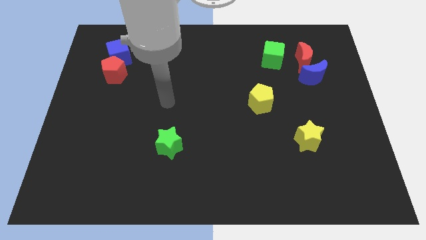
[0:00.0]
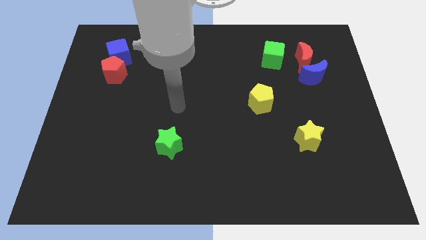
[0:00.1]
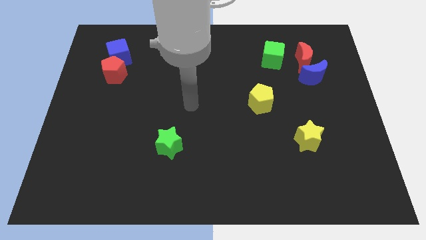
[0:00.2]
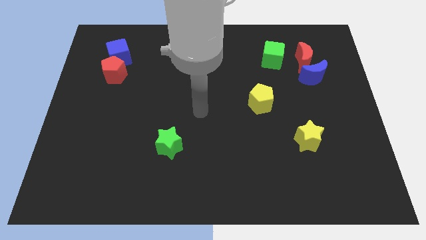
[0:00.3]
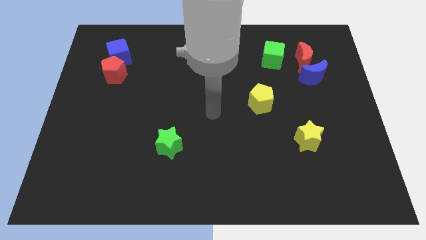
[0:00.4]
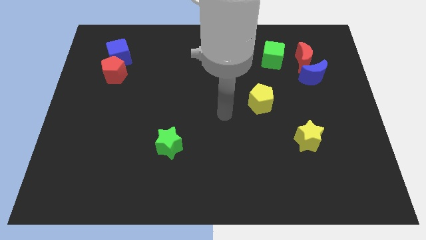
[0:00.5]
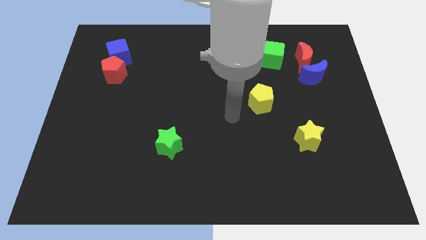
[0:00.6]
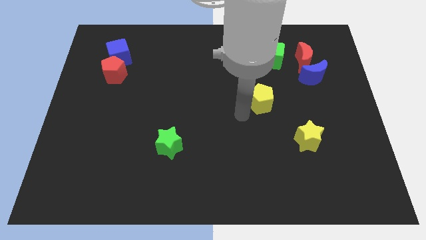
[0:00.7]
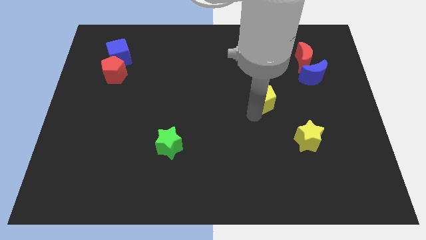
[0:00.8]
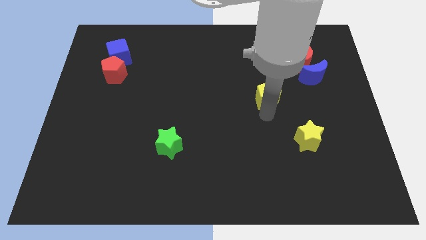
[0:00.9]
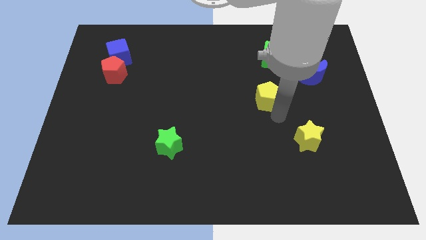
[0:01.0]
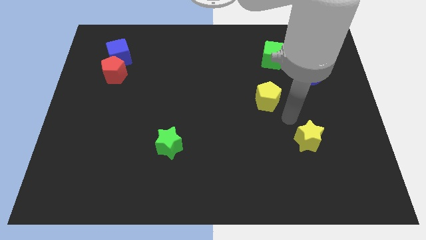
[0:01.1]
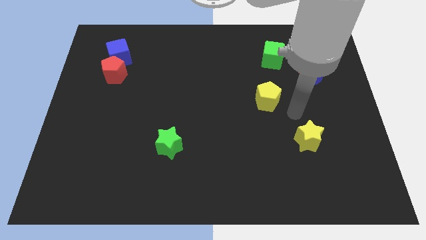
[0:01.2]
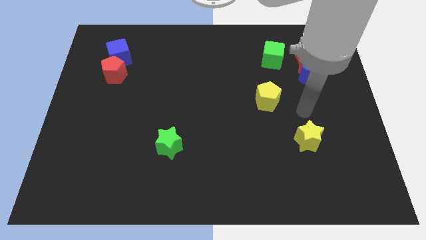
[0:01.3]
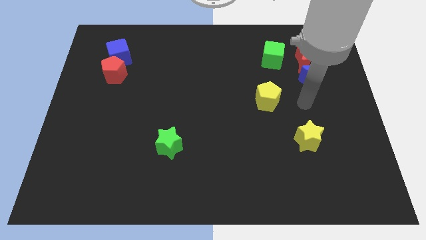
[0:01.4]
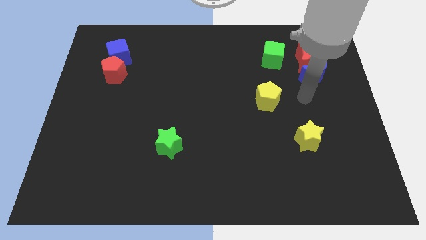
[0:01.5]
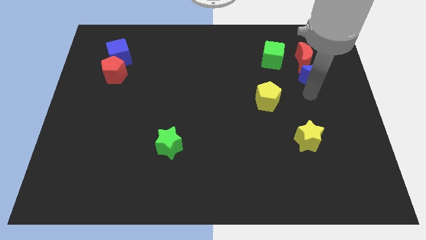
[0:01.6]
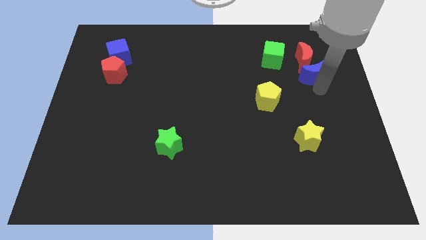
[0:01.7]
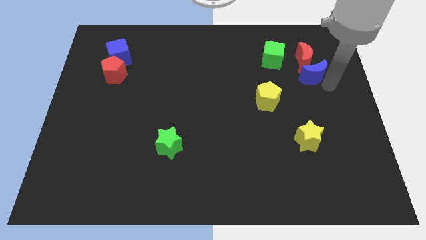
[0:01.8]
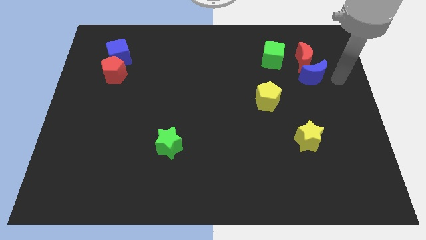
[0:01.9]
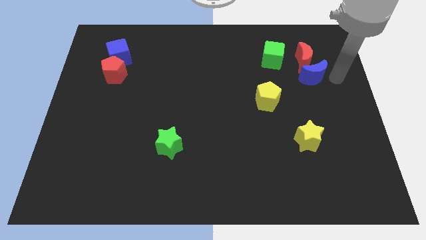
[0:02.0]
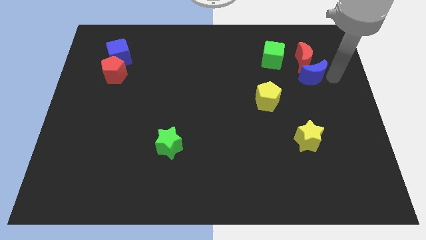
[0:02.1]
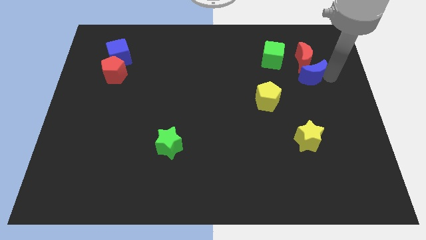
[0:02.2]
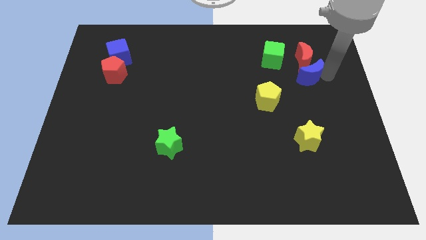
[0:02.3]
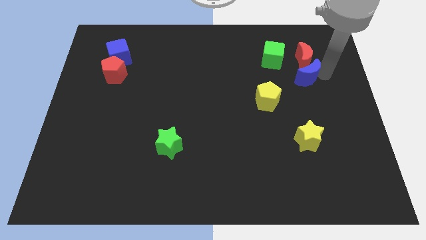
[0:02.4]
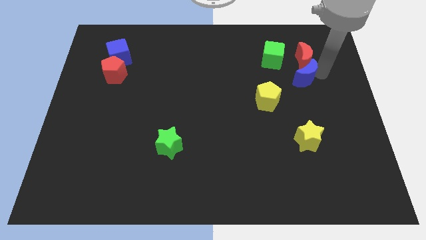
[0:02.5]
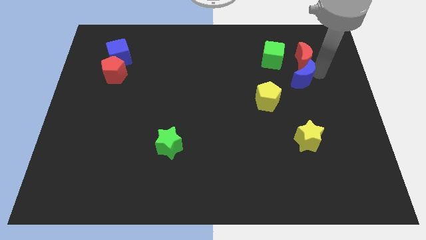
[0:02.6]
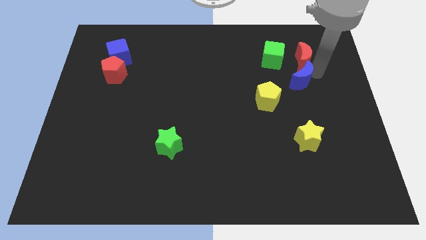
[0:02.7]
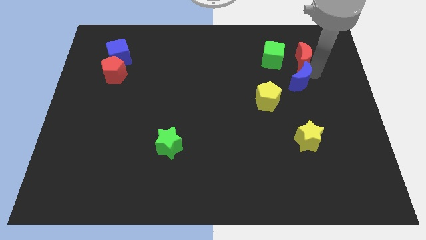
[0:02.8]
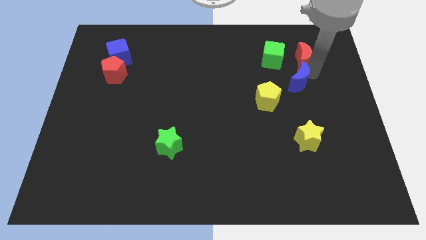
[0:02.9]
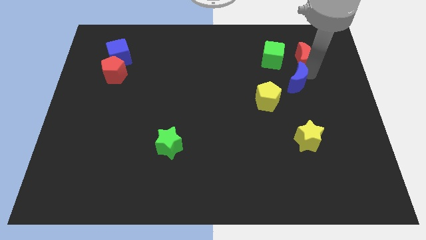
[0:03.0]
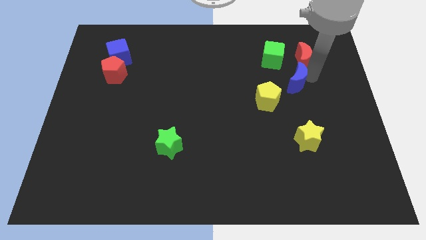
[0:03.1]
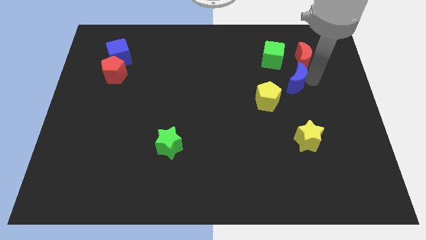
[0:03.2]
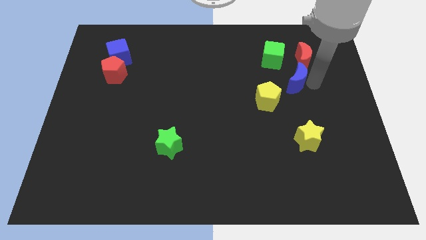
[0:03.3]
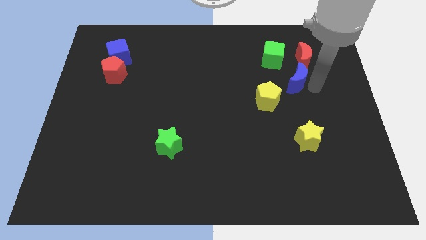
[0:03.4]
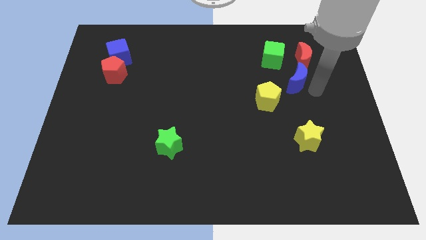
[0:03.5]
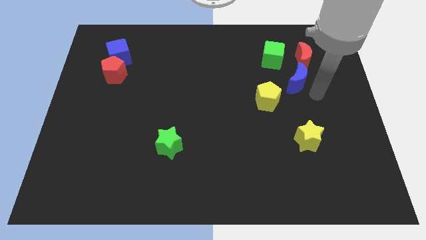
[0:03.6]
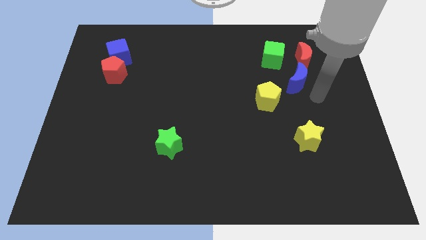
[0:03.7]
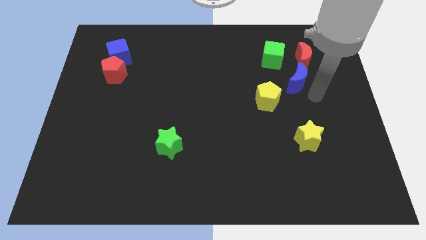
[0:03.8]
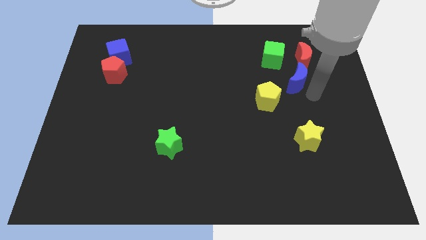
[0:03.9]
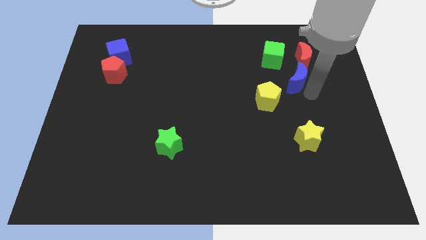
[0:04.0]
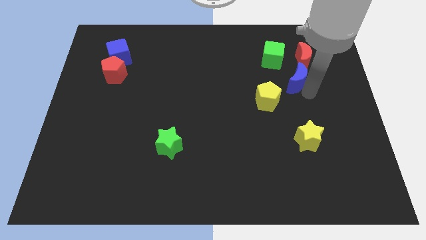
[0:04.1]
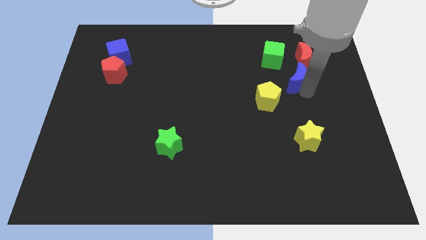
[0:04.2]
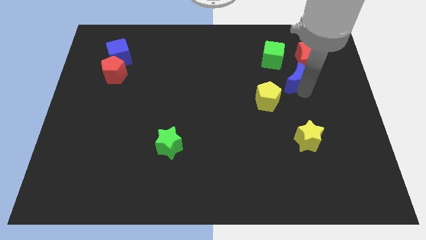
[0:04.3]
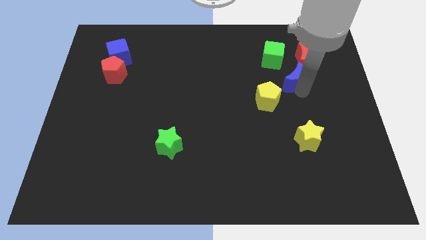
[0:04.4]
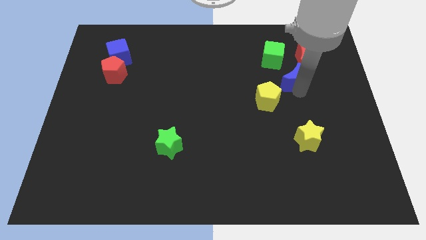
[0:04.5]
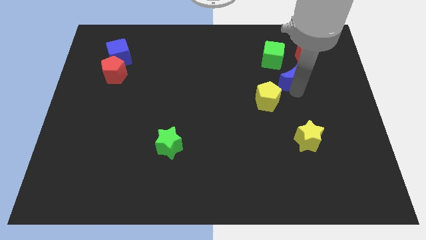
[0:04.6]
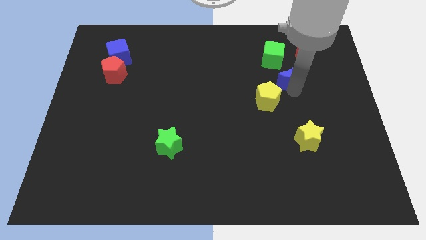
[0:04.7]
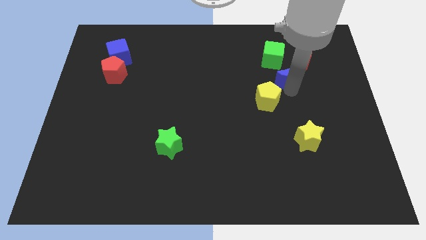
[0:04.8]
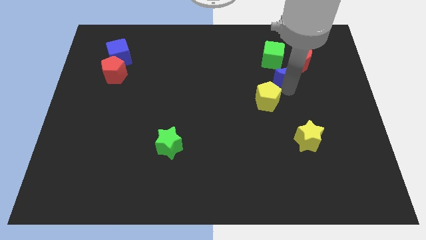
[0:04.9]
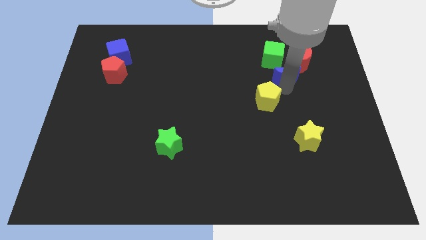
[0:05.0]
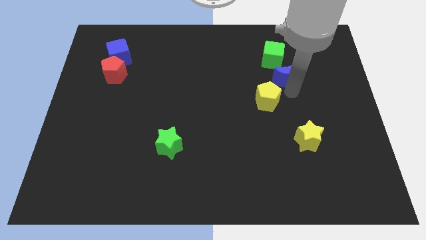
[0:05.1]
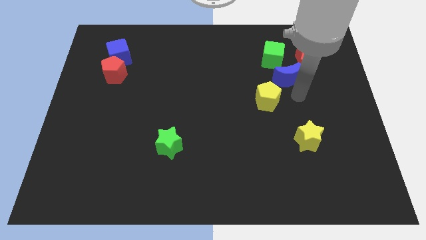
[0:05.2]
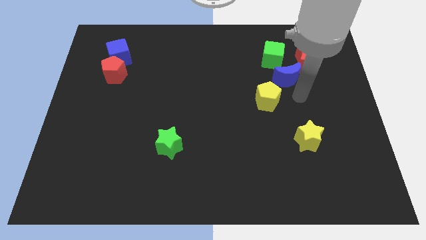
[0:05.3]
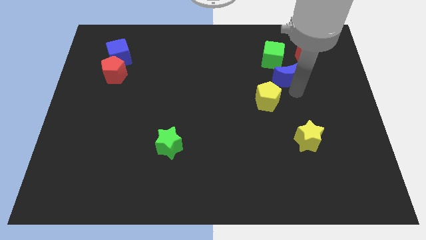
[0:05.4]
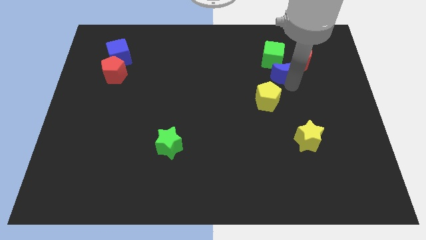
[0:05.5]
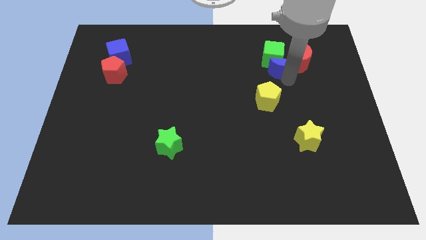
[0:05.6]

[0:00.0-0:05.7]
slide the blue moon towards the green cube

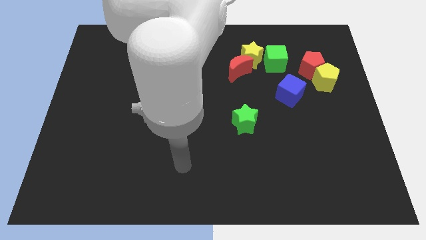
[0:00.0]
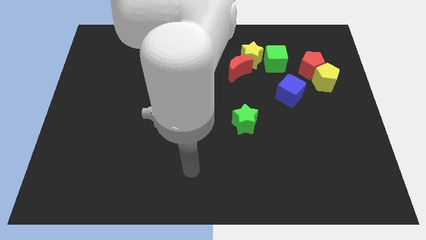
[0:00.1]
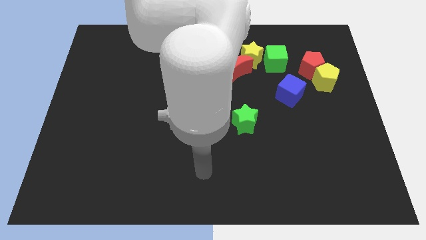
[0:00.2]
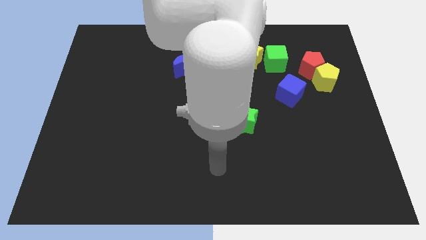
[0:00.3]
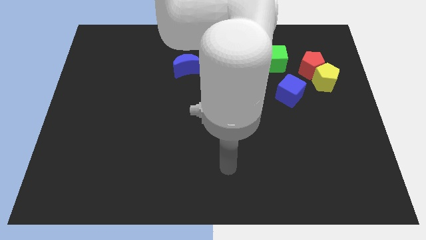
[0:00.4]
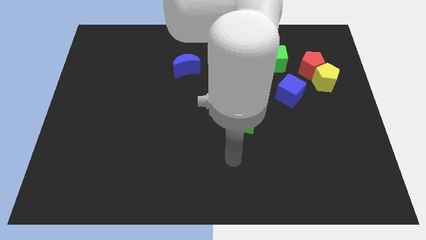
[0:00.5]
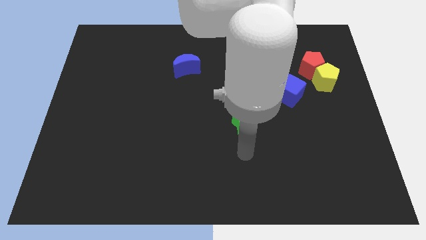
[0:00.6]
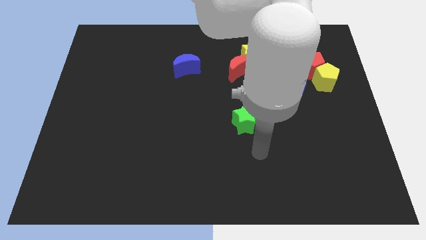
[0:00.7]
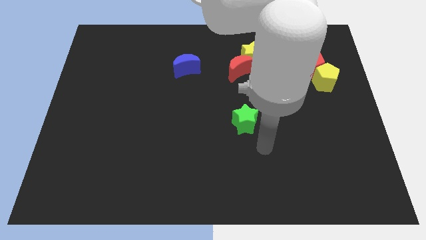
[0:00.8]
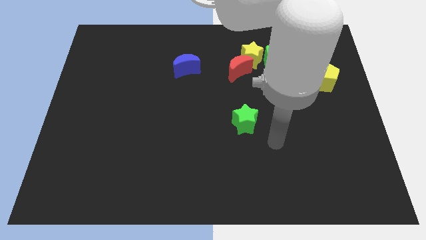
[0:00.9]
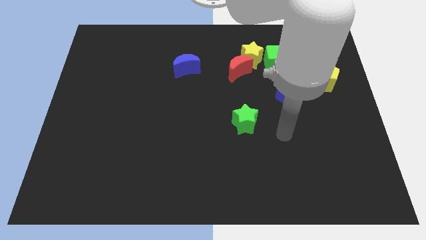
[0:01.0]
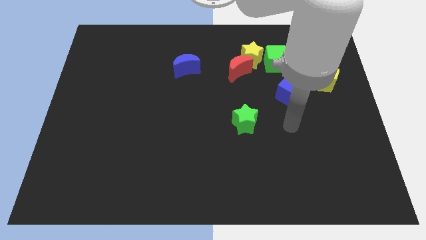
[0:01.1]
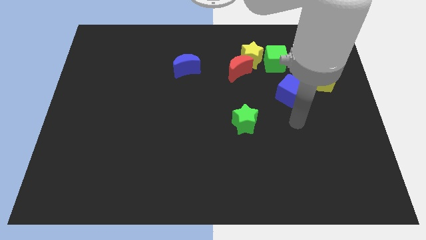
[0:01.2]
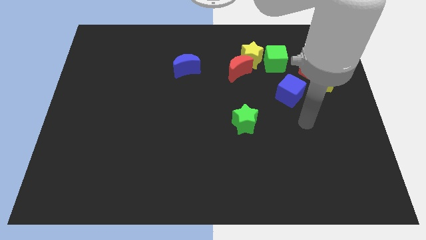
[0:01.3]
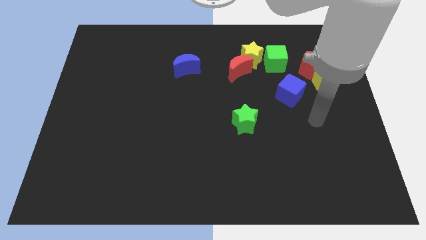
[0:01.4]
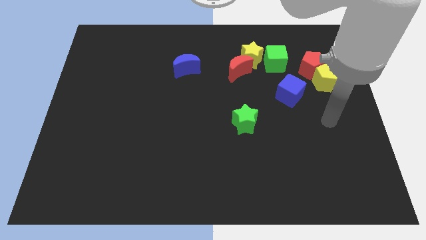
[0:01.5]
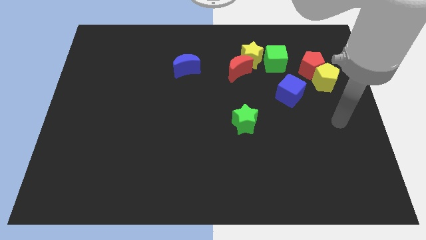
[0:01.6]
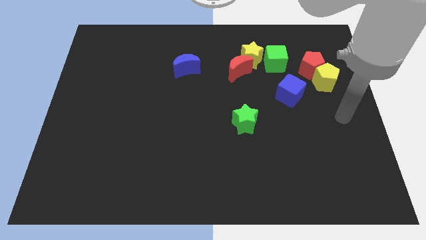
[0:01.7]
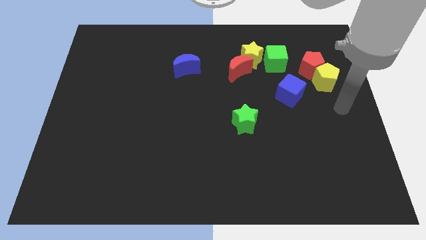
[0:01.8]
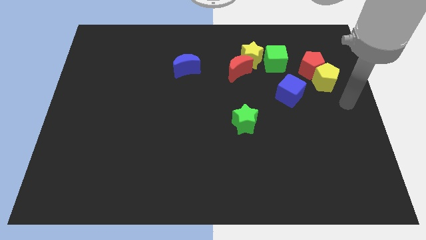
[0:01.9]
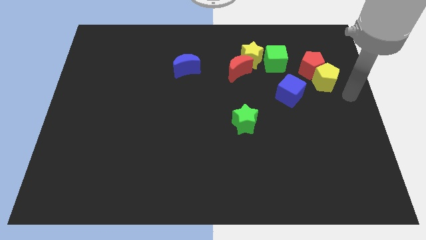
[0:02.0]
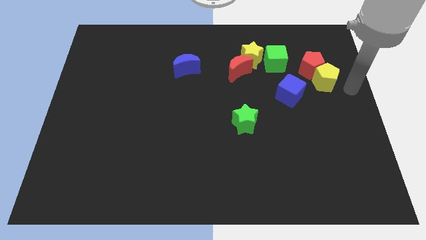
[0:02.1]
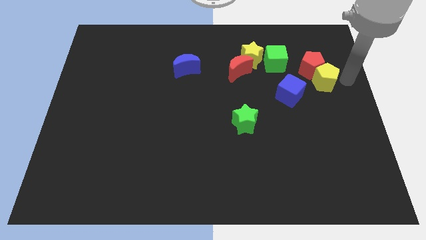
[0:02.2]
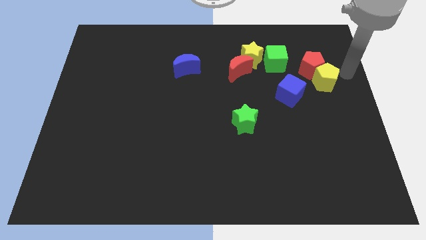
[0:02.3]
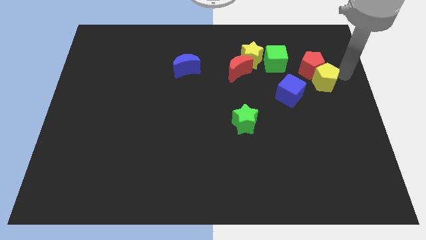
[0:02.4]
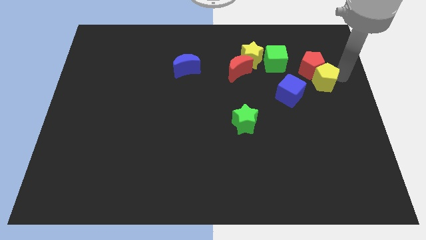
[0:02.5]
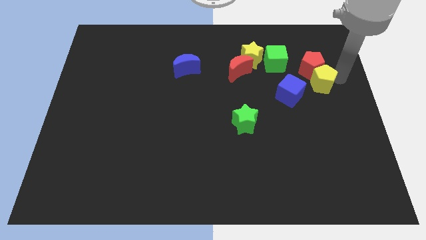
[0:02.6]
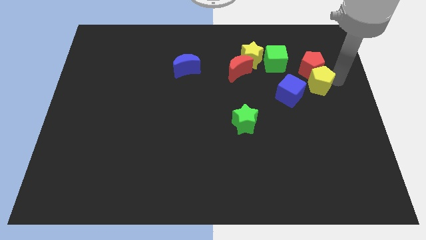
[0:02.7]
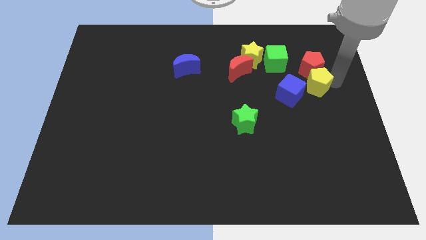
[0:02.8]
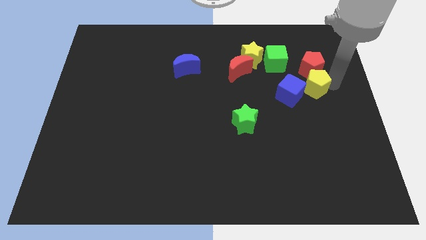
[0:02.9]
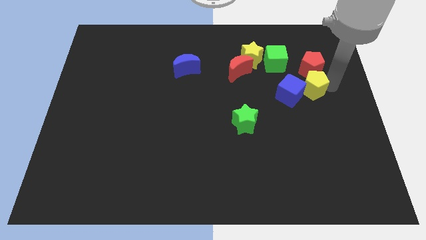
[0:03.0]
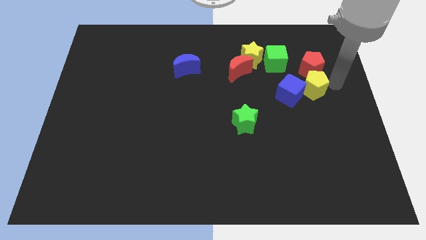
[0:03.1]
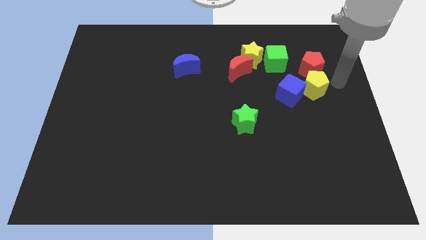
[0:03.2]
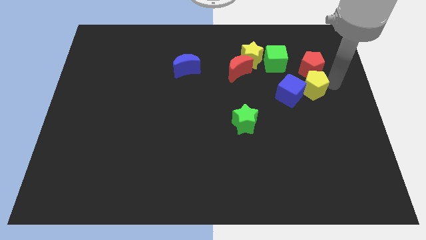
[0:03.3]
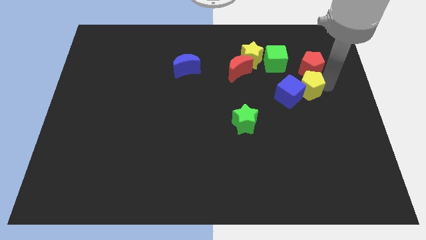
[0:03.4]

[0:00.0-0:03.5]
move the yellow pentagon to the blue cube
